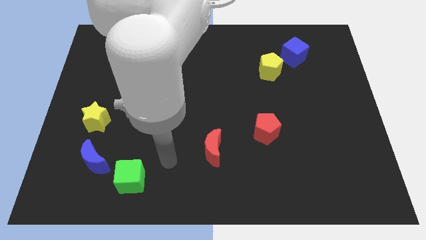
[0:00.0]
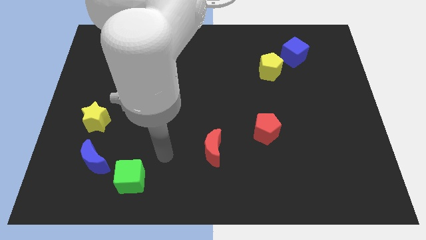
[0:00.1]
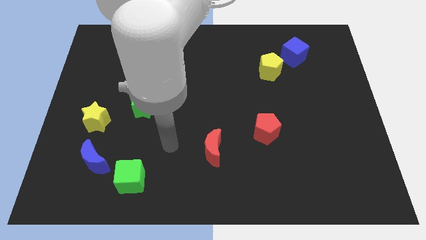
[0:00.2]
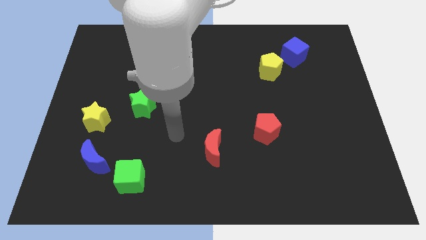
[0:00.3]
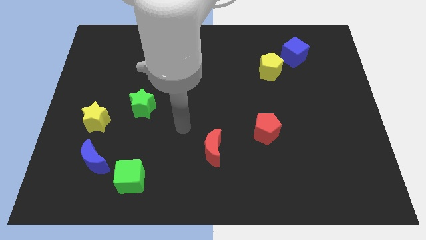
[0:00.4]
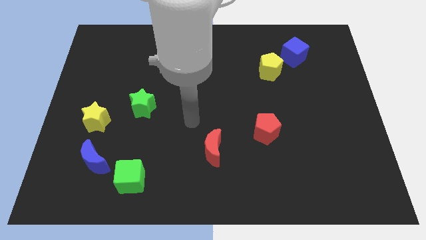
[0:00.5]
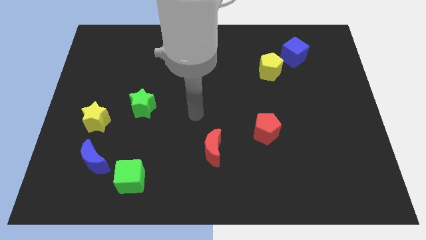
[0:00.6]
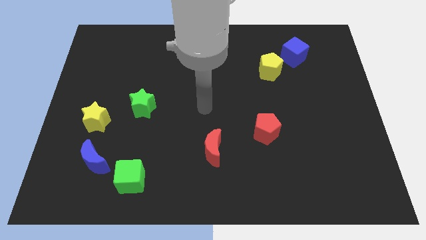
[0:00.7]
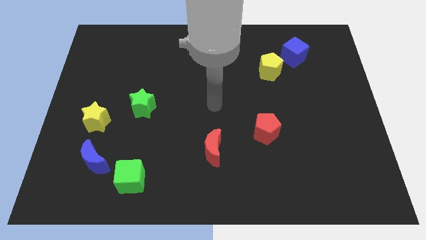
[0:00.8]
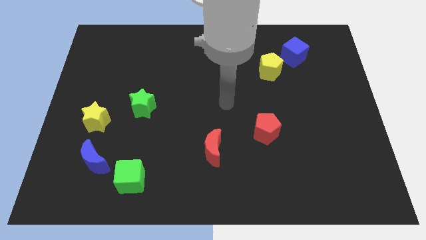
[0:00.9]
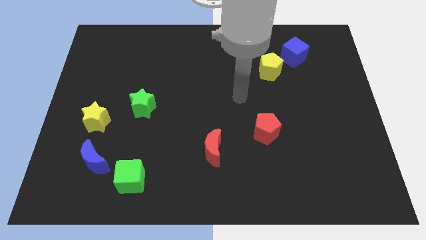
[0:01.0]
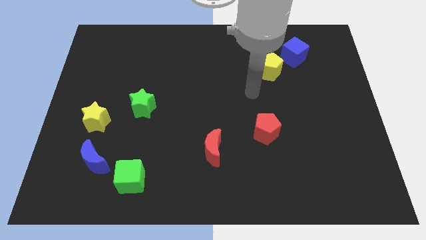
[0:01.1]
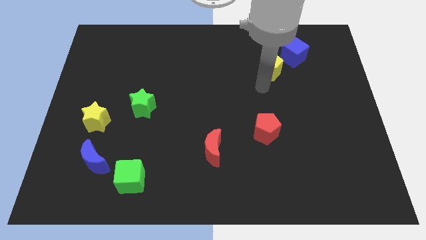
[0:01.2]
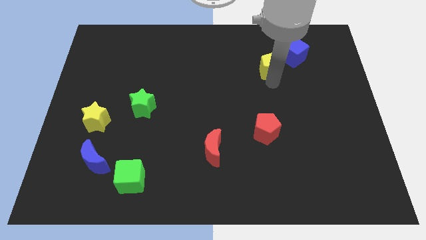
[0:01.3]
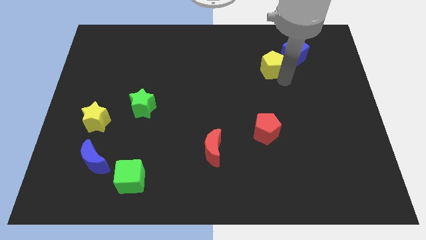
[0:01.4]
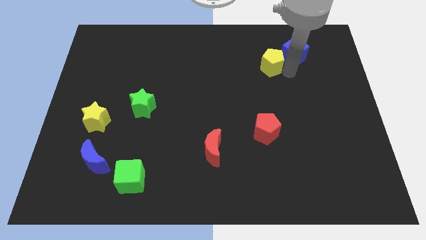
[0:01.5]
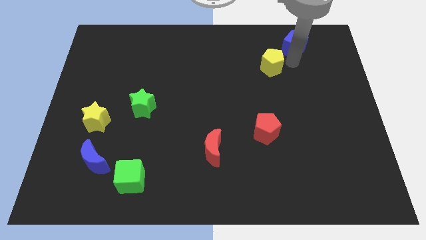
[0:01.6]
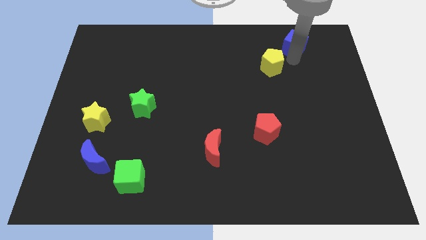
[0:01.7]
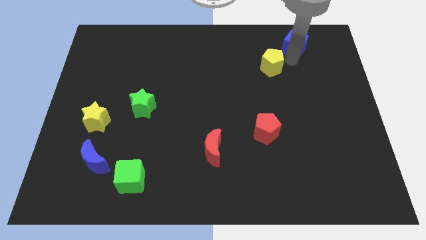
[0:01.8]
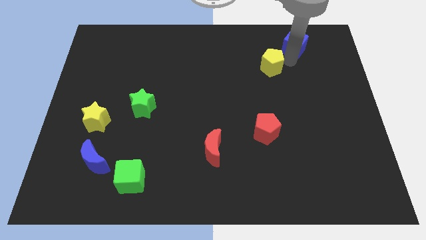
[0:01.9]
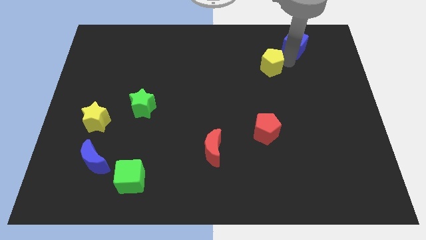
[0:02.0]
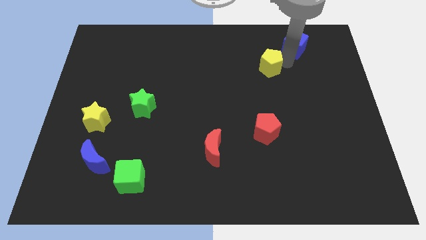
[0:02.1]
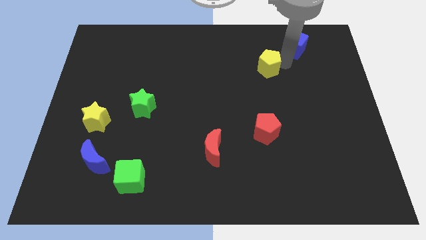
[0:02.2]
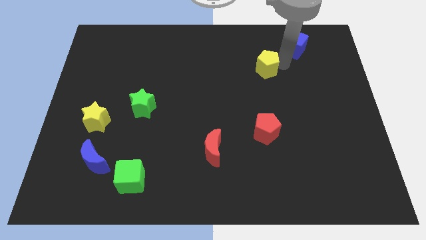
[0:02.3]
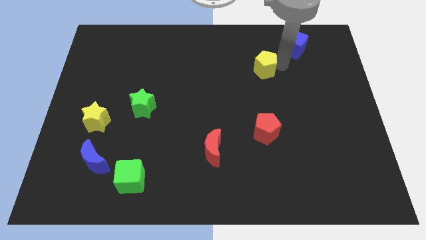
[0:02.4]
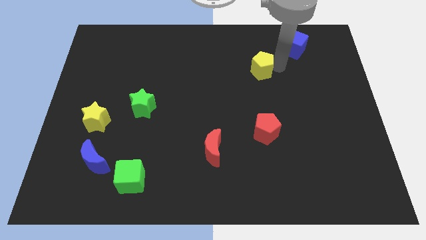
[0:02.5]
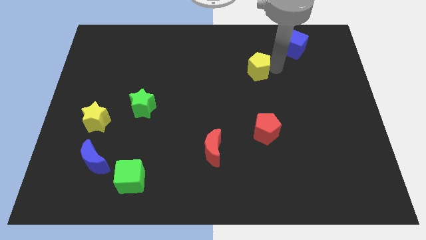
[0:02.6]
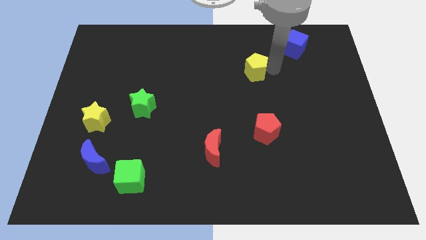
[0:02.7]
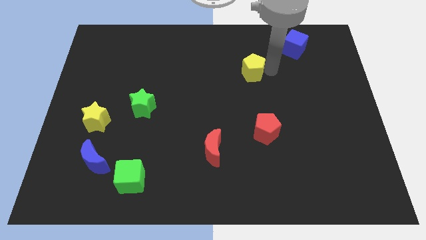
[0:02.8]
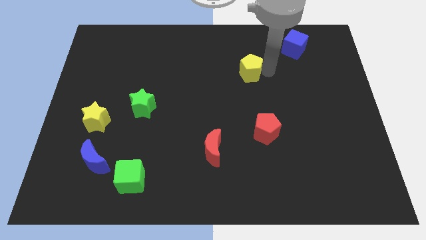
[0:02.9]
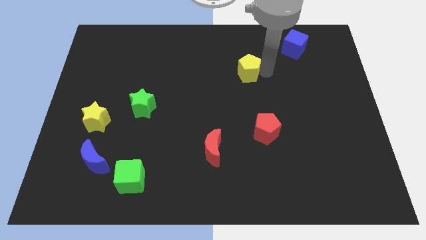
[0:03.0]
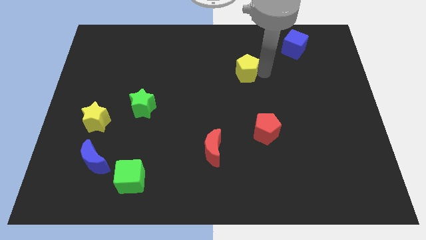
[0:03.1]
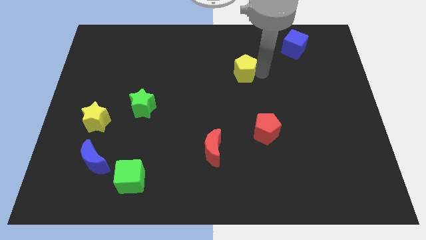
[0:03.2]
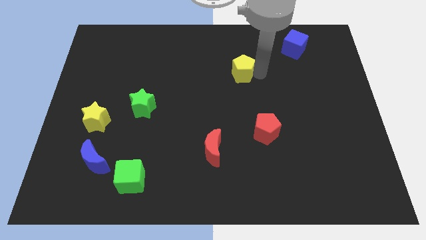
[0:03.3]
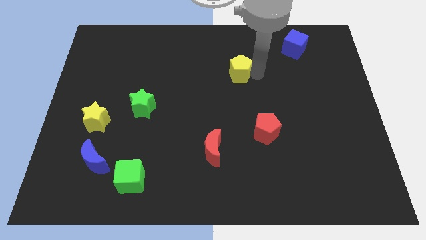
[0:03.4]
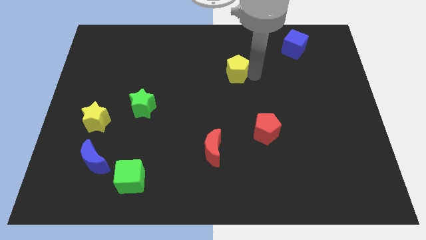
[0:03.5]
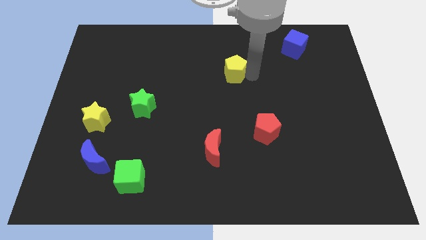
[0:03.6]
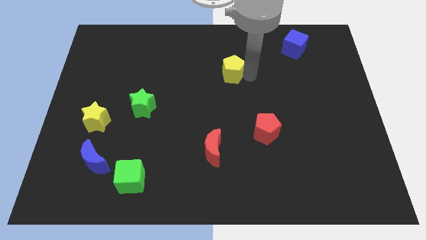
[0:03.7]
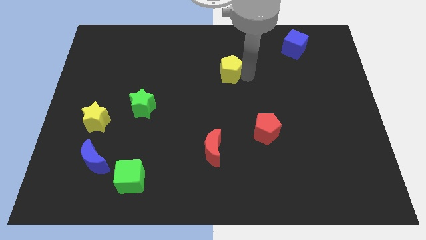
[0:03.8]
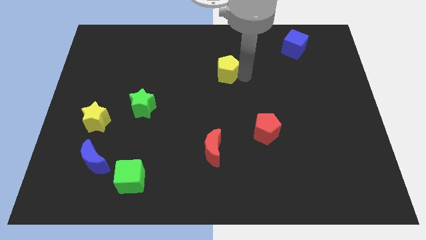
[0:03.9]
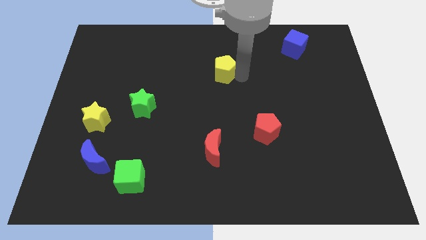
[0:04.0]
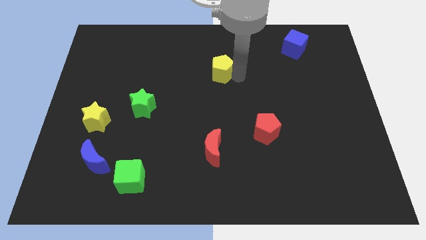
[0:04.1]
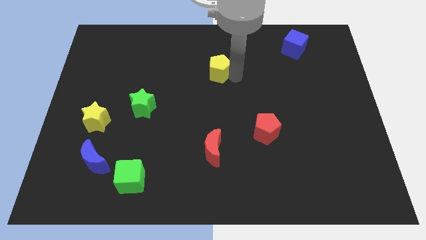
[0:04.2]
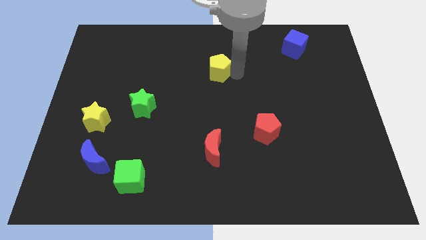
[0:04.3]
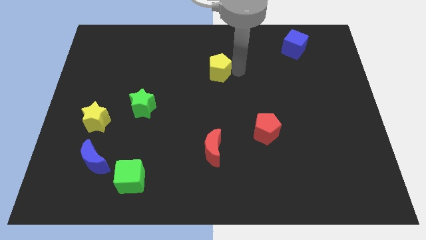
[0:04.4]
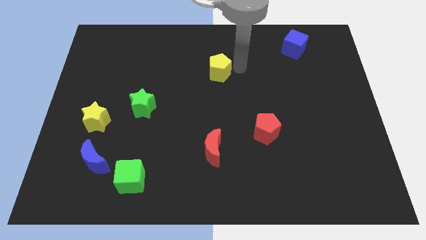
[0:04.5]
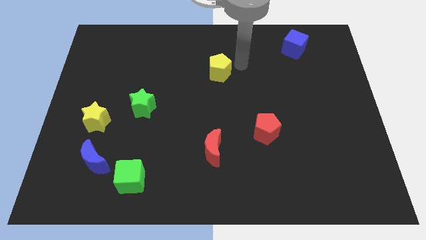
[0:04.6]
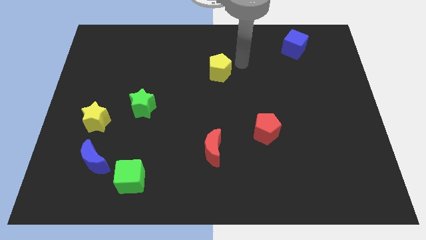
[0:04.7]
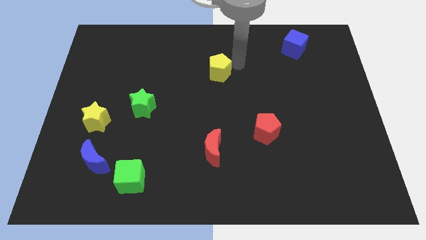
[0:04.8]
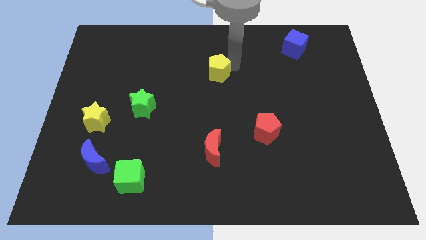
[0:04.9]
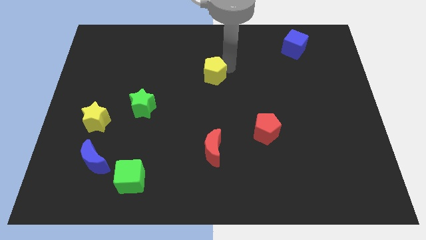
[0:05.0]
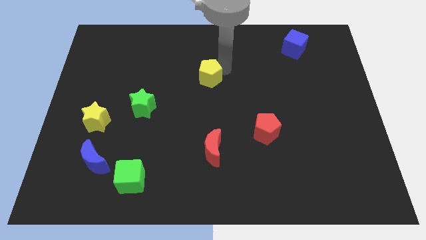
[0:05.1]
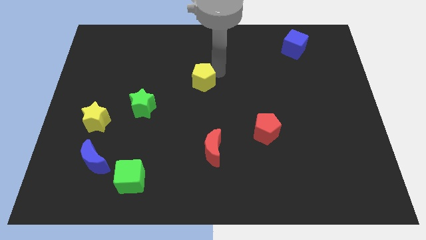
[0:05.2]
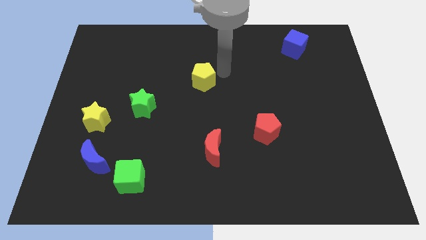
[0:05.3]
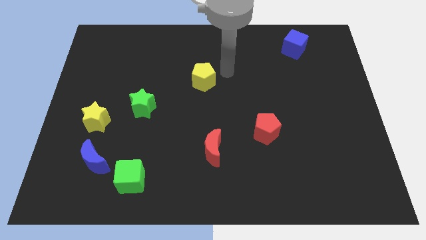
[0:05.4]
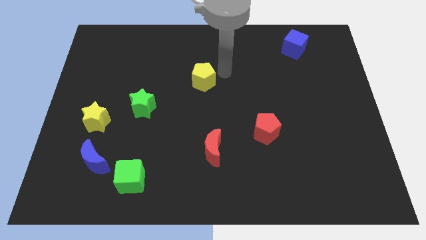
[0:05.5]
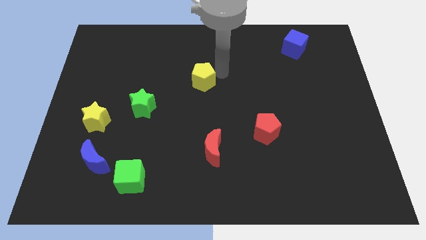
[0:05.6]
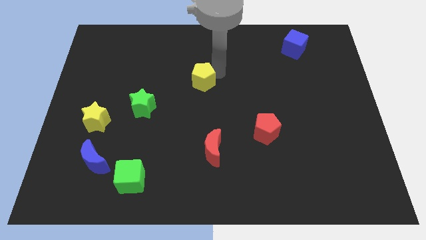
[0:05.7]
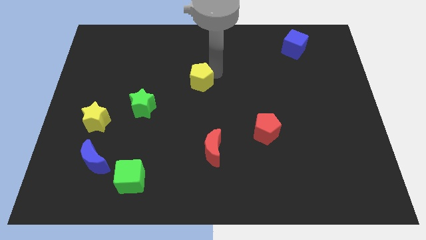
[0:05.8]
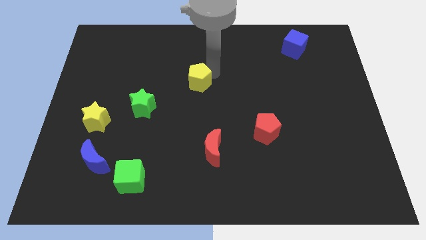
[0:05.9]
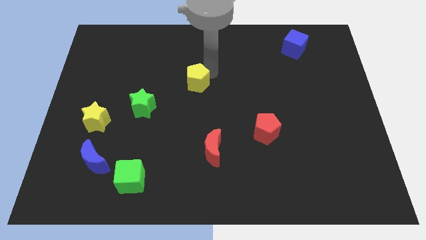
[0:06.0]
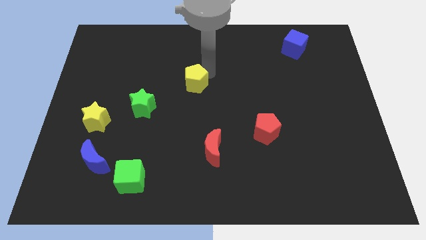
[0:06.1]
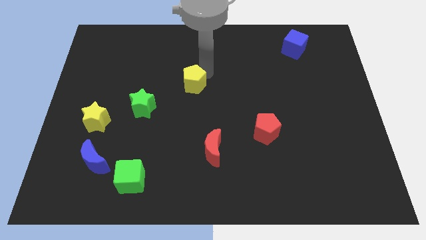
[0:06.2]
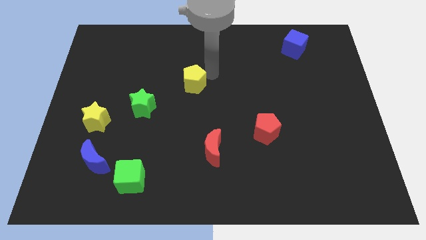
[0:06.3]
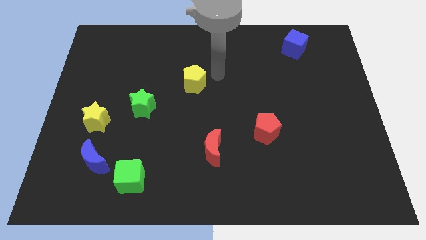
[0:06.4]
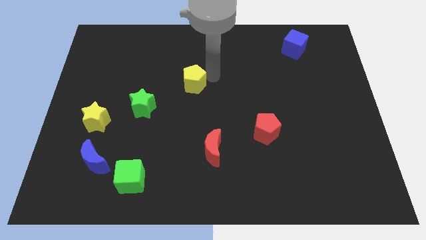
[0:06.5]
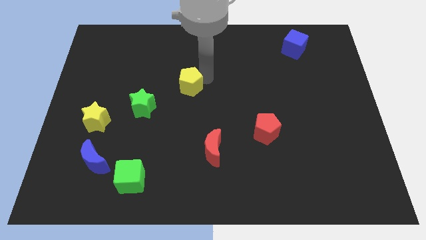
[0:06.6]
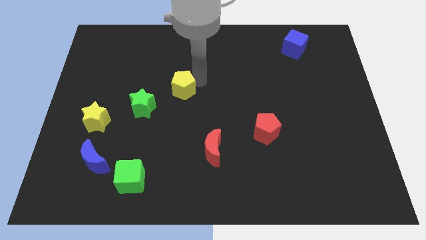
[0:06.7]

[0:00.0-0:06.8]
slide the yellow pentagon diagonally up and to the right of the green star
